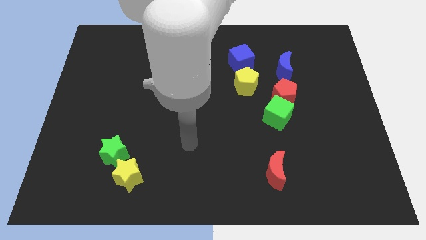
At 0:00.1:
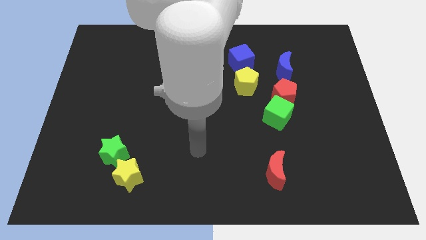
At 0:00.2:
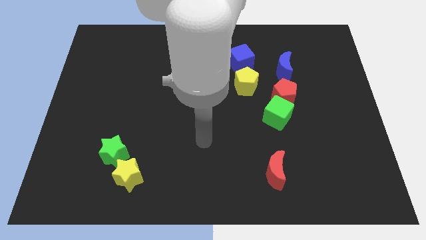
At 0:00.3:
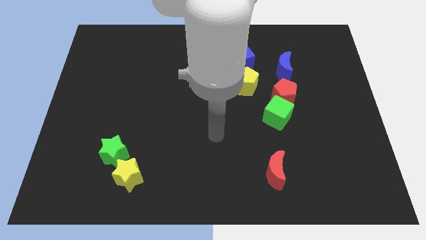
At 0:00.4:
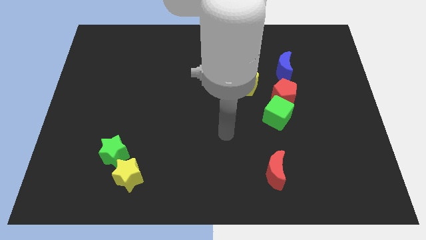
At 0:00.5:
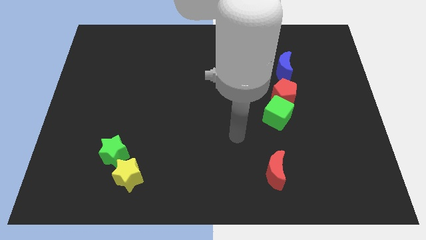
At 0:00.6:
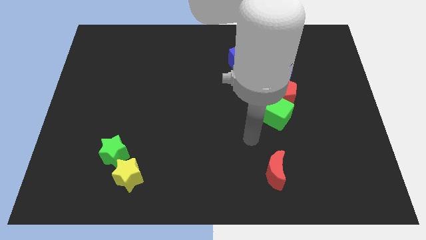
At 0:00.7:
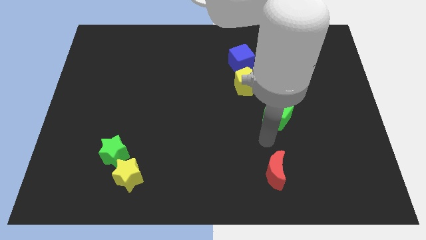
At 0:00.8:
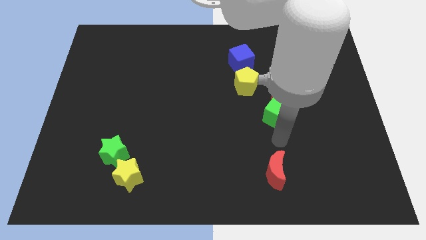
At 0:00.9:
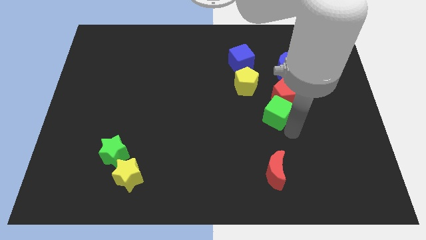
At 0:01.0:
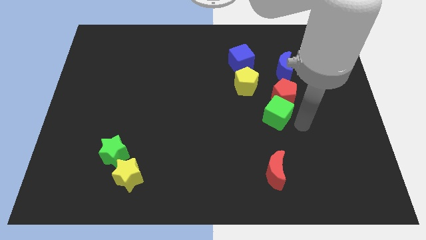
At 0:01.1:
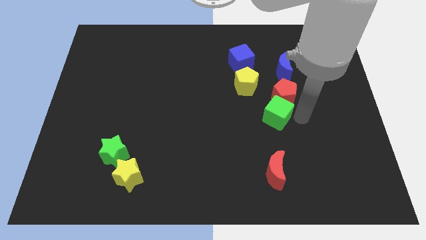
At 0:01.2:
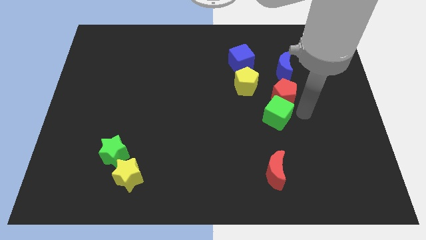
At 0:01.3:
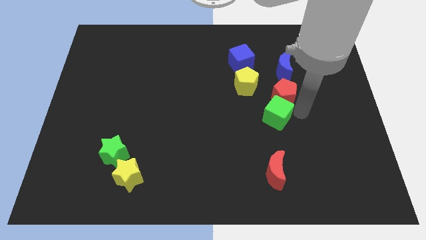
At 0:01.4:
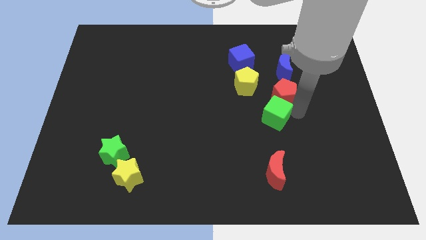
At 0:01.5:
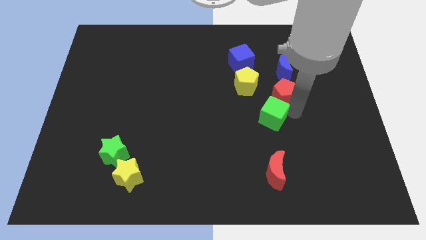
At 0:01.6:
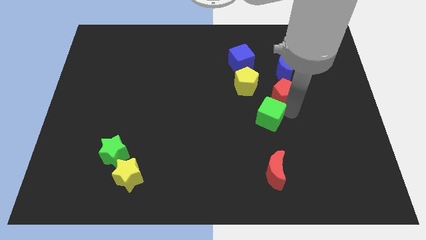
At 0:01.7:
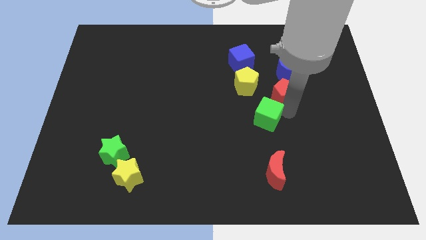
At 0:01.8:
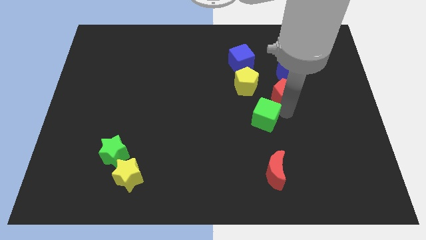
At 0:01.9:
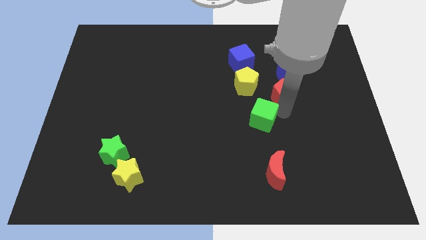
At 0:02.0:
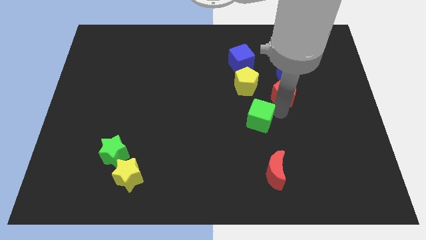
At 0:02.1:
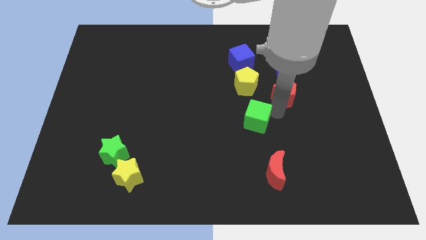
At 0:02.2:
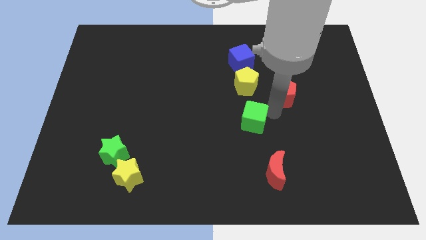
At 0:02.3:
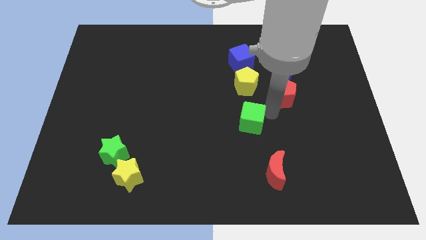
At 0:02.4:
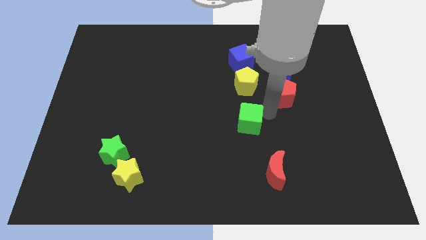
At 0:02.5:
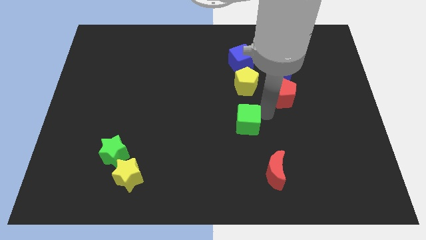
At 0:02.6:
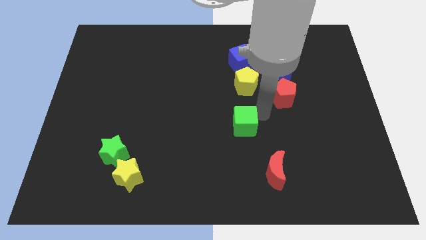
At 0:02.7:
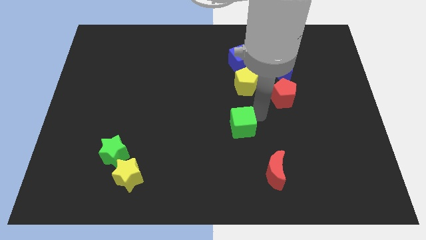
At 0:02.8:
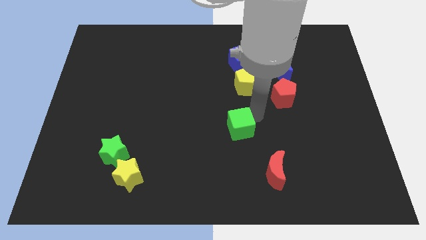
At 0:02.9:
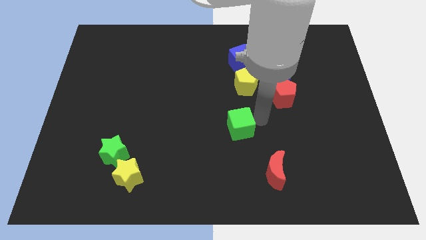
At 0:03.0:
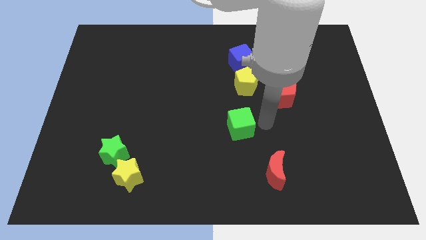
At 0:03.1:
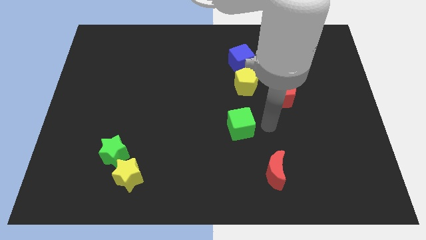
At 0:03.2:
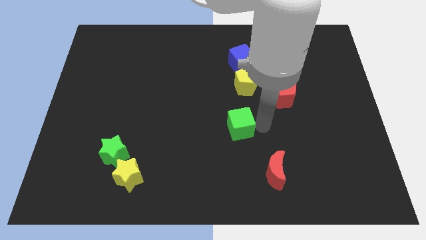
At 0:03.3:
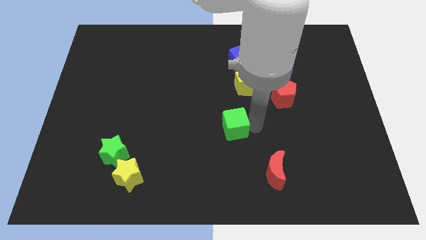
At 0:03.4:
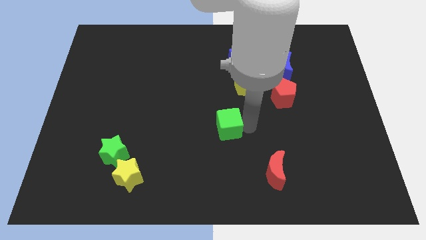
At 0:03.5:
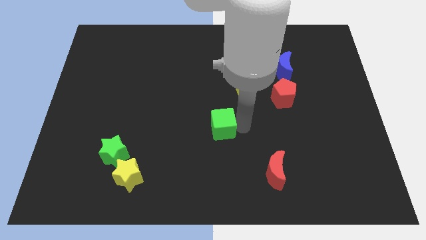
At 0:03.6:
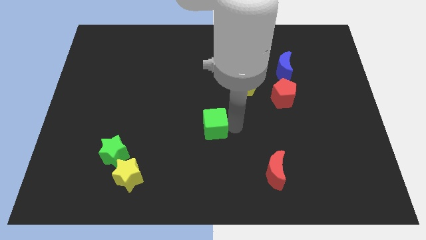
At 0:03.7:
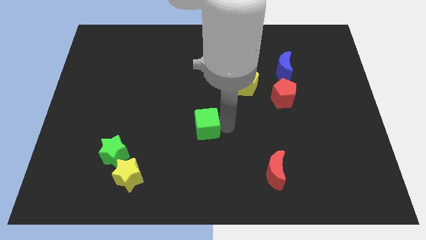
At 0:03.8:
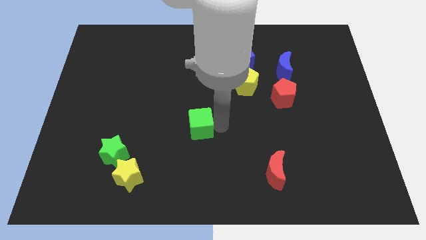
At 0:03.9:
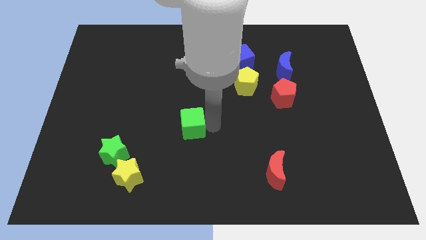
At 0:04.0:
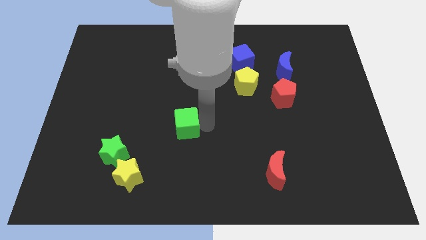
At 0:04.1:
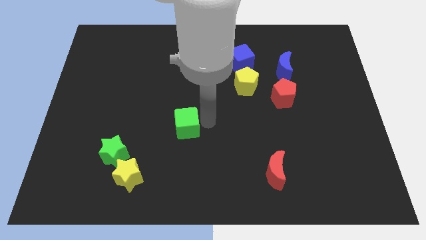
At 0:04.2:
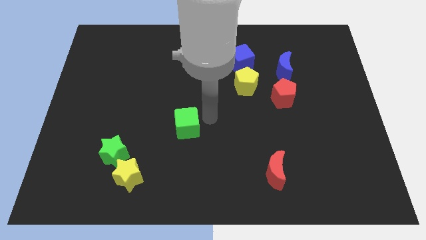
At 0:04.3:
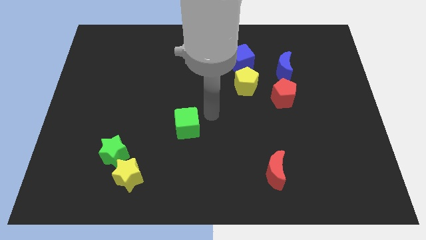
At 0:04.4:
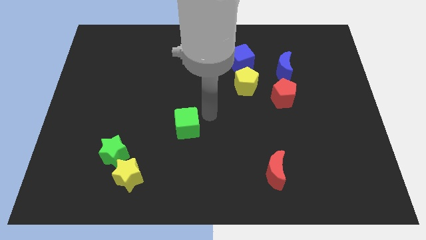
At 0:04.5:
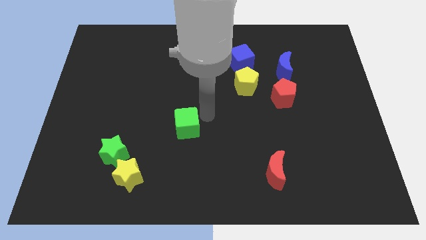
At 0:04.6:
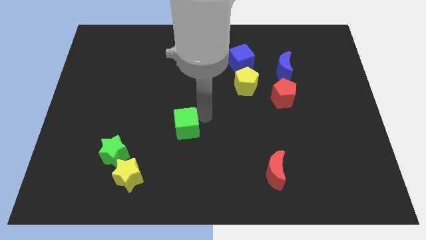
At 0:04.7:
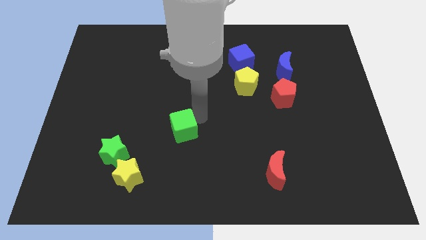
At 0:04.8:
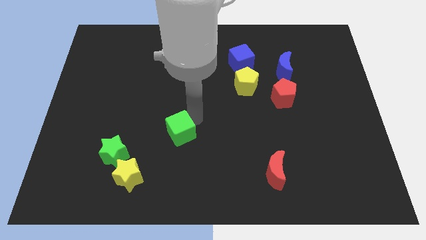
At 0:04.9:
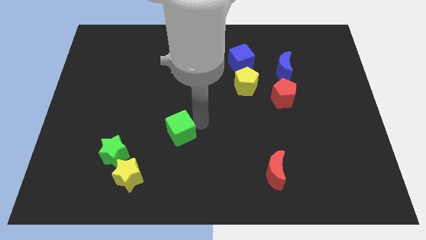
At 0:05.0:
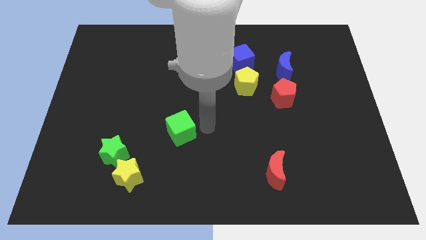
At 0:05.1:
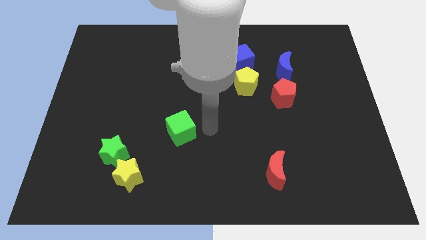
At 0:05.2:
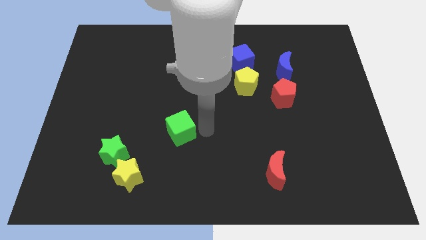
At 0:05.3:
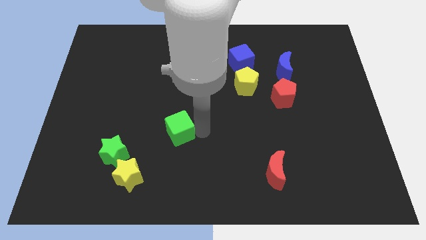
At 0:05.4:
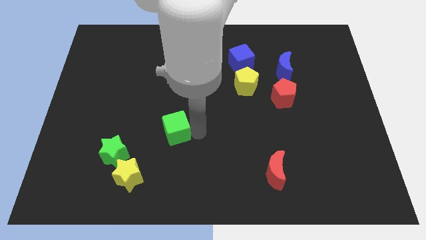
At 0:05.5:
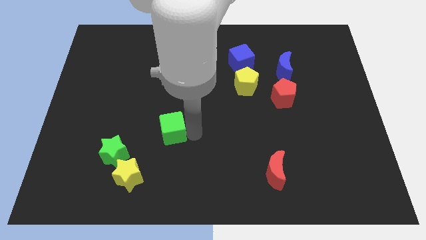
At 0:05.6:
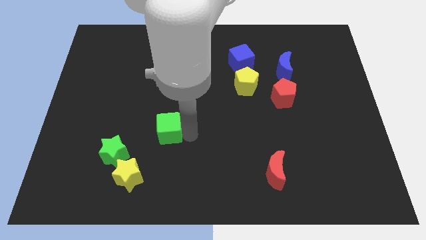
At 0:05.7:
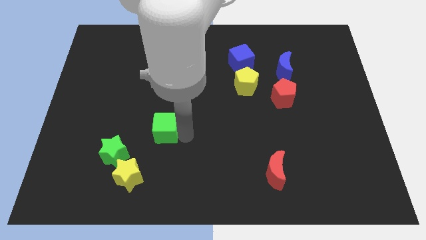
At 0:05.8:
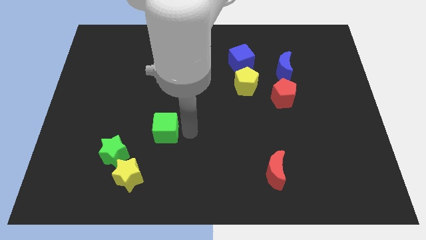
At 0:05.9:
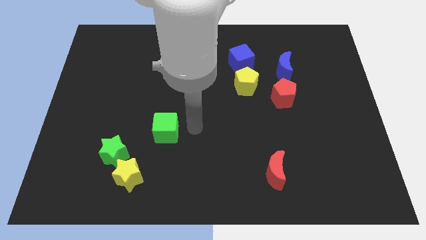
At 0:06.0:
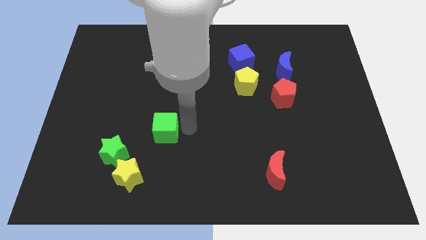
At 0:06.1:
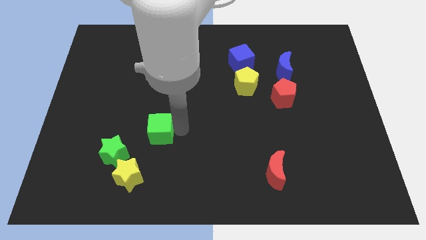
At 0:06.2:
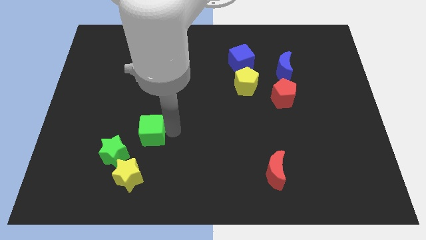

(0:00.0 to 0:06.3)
move the green cube above the yellow star

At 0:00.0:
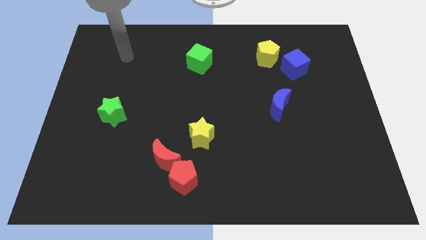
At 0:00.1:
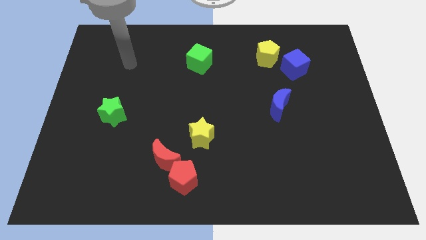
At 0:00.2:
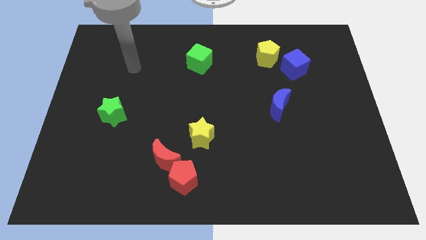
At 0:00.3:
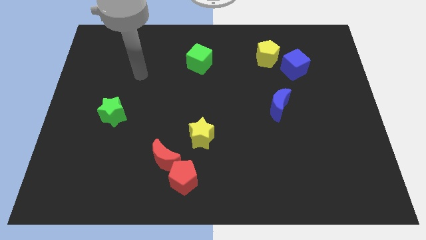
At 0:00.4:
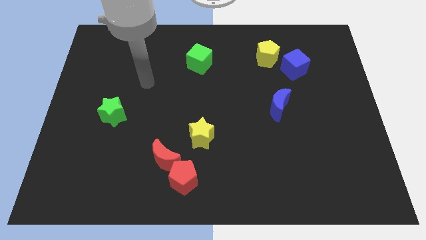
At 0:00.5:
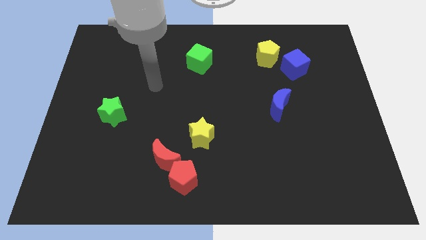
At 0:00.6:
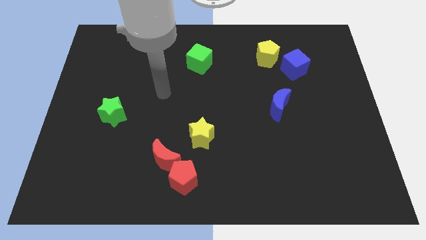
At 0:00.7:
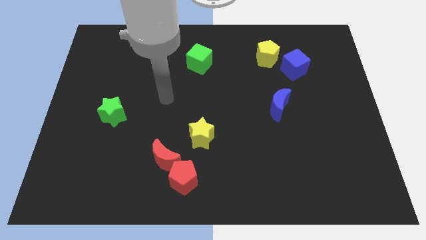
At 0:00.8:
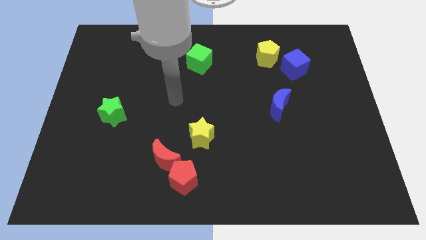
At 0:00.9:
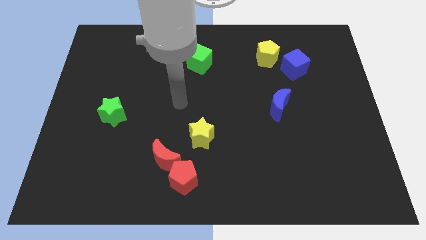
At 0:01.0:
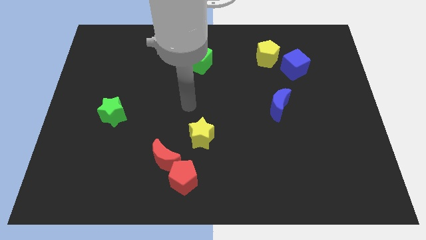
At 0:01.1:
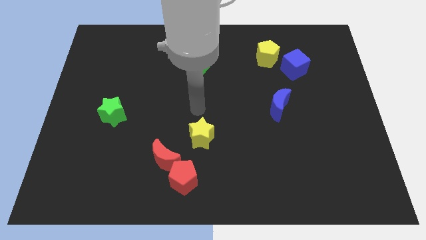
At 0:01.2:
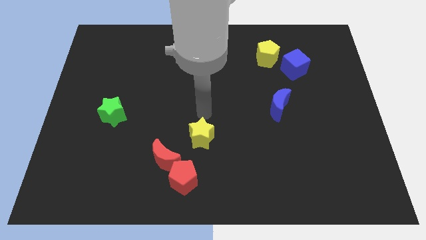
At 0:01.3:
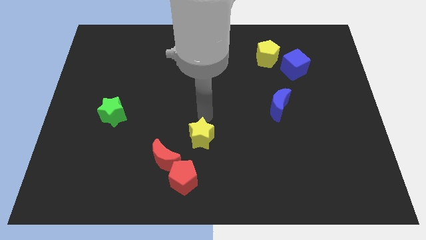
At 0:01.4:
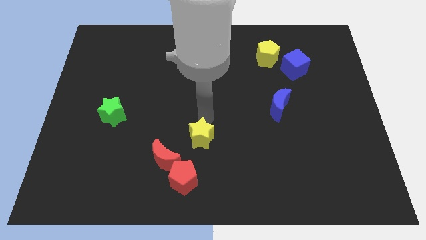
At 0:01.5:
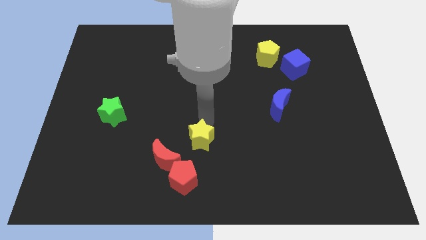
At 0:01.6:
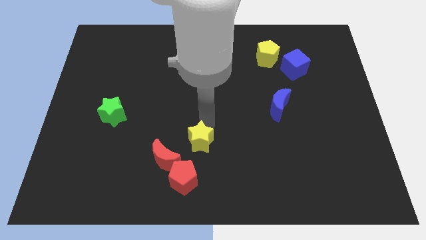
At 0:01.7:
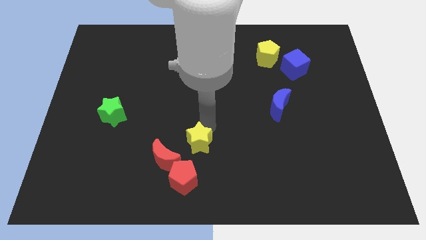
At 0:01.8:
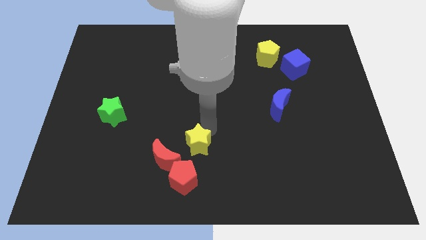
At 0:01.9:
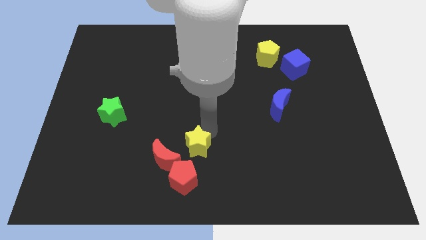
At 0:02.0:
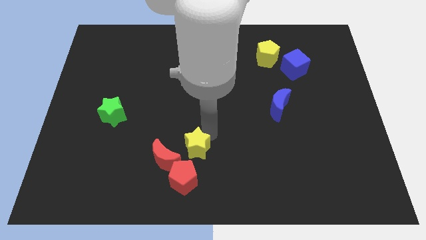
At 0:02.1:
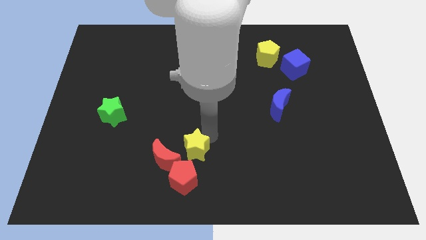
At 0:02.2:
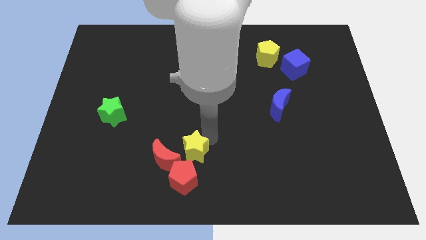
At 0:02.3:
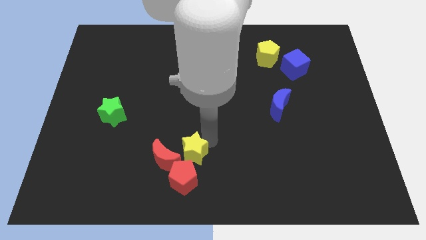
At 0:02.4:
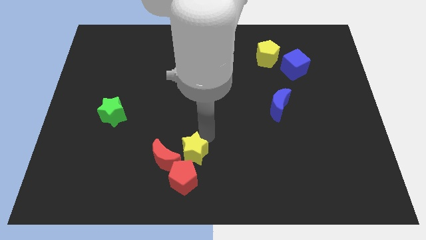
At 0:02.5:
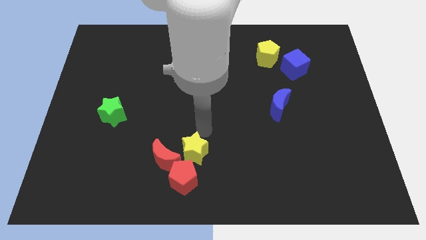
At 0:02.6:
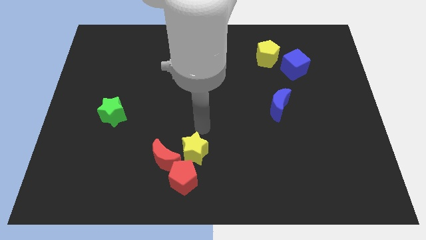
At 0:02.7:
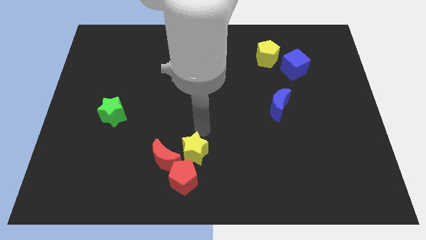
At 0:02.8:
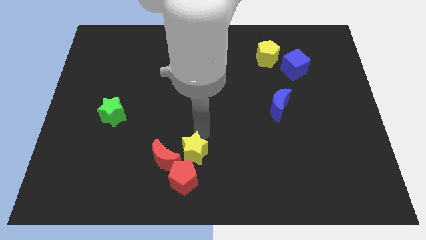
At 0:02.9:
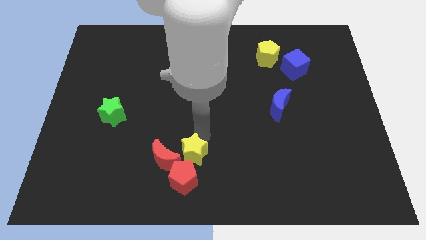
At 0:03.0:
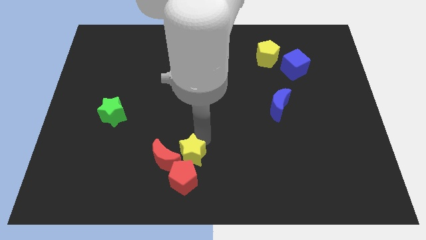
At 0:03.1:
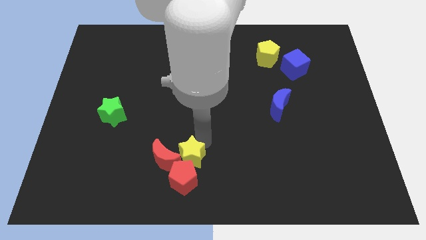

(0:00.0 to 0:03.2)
move the yellow star to the bottom right of the red moon
